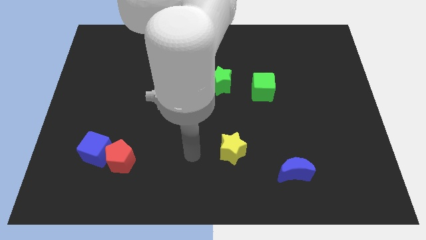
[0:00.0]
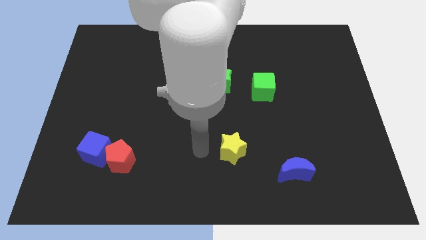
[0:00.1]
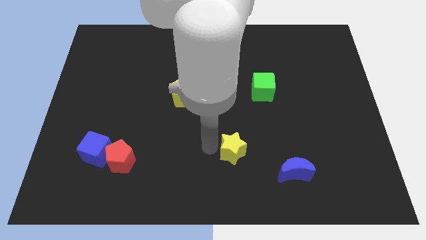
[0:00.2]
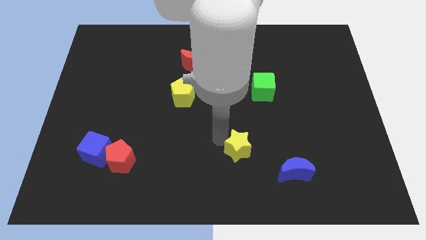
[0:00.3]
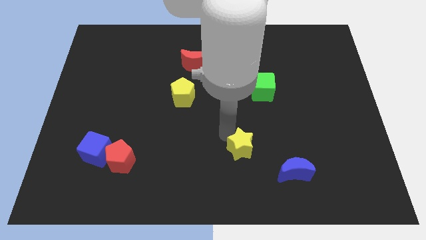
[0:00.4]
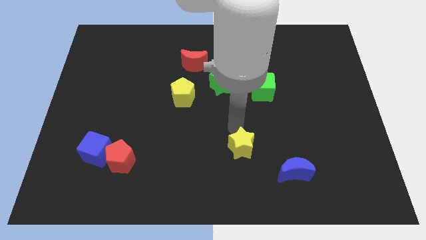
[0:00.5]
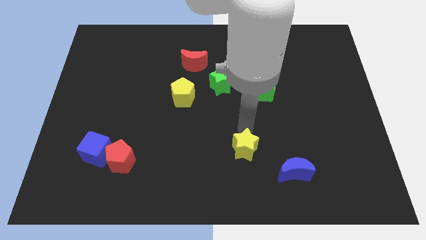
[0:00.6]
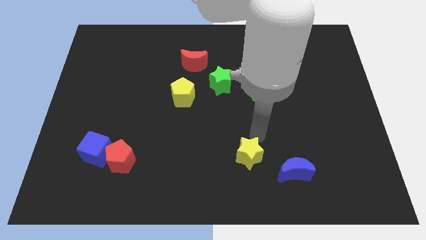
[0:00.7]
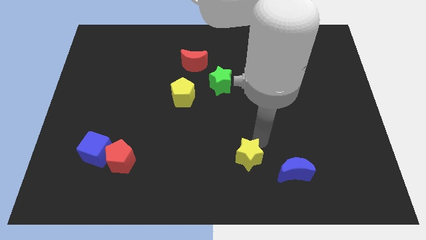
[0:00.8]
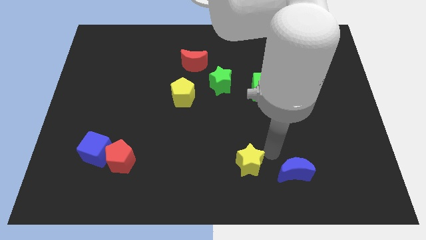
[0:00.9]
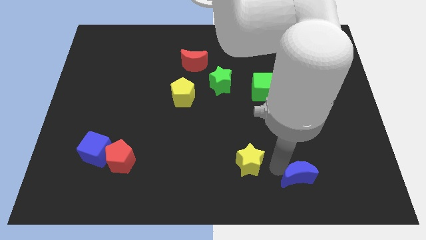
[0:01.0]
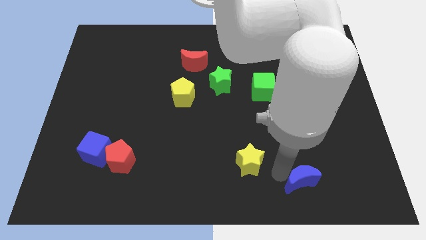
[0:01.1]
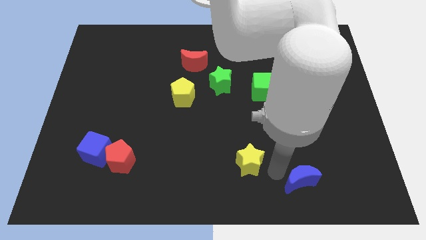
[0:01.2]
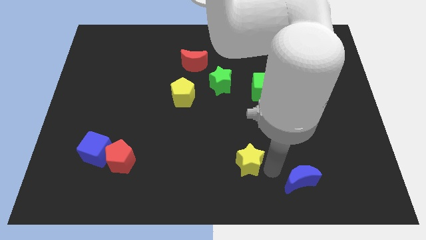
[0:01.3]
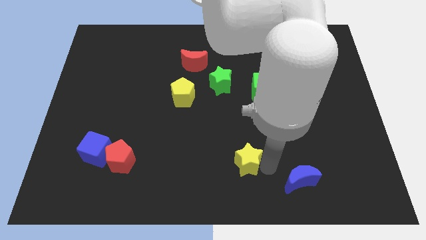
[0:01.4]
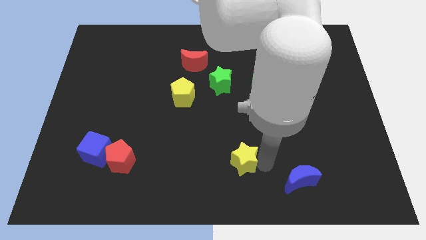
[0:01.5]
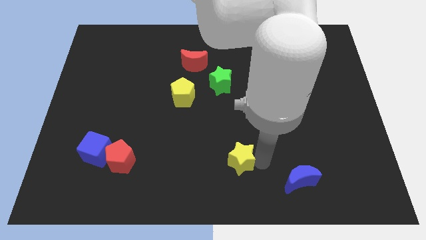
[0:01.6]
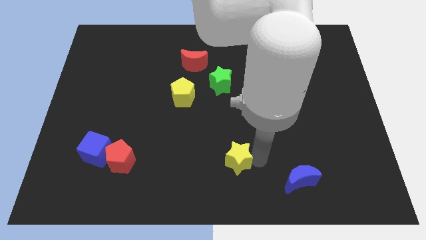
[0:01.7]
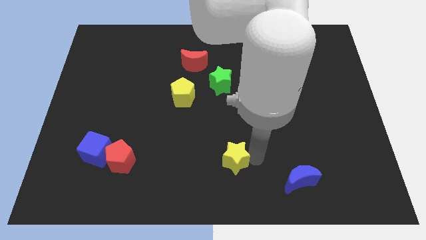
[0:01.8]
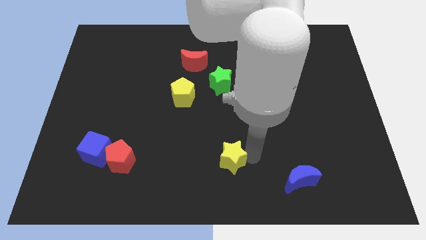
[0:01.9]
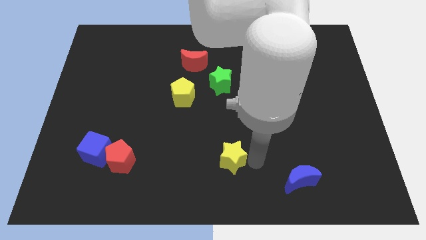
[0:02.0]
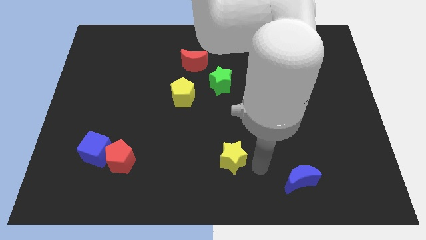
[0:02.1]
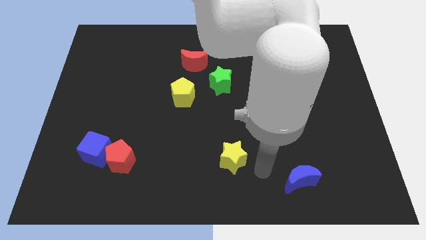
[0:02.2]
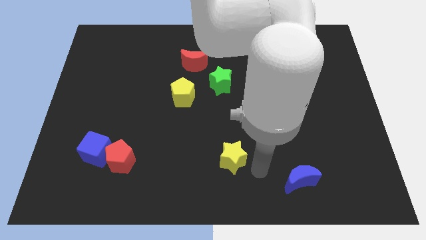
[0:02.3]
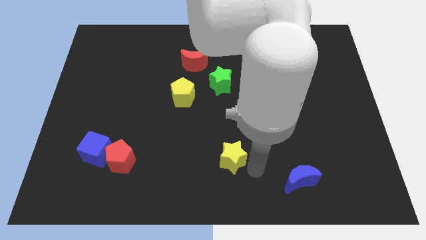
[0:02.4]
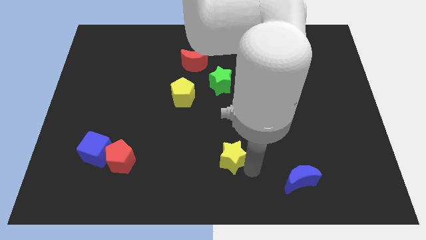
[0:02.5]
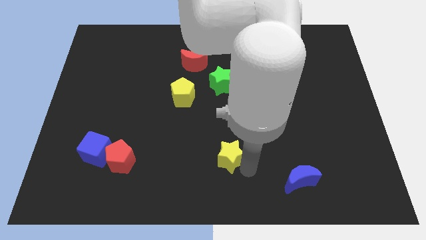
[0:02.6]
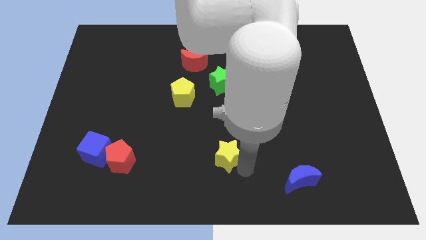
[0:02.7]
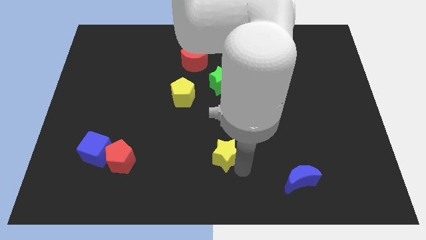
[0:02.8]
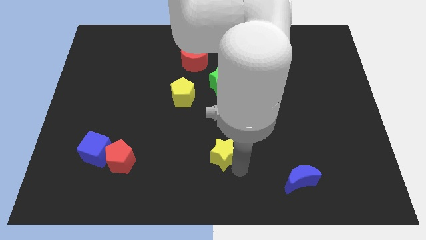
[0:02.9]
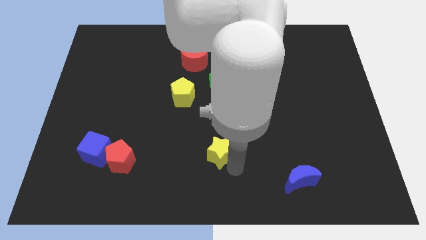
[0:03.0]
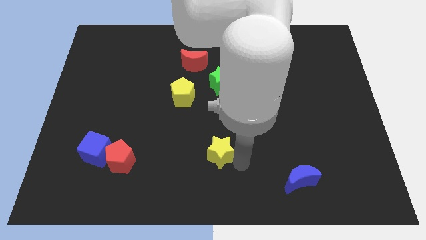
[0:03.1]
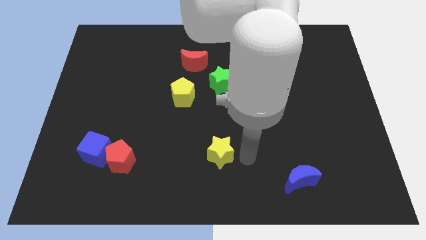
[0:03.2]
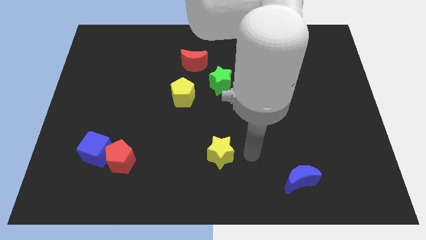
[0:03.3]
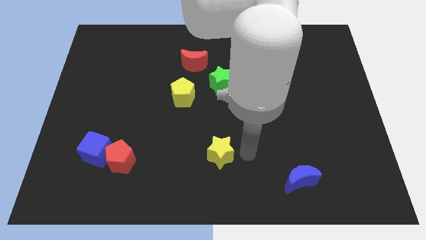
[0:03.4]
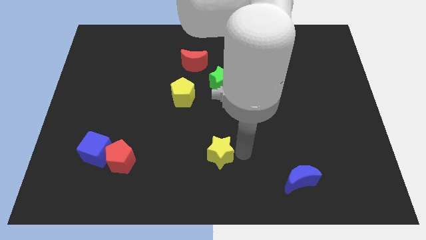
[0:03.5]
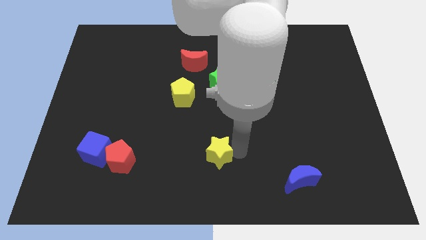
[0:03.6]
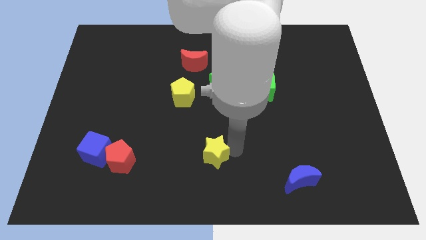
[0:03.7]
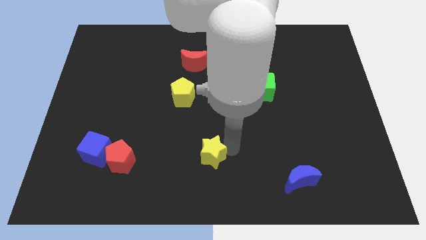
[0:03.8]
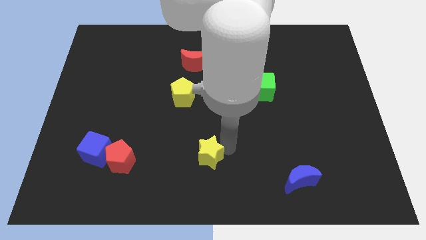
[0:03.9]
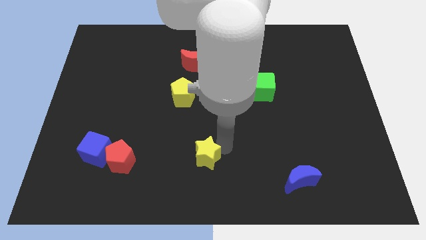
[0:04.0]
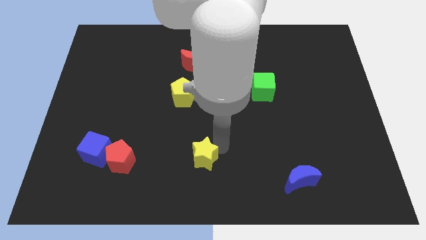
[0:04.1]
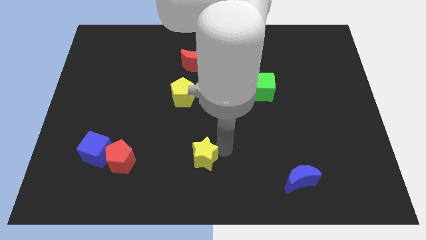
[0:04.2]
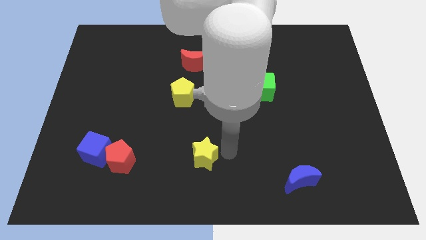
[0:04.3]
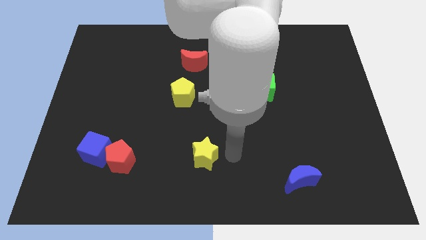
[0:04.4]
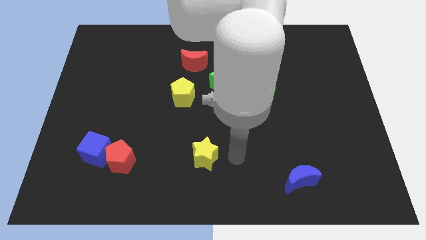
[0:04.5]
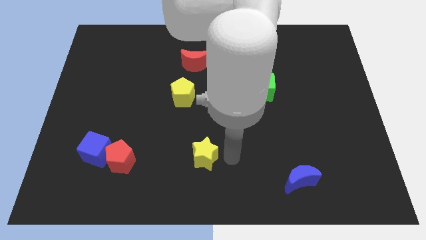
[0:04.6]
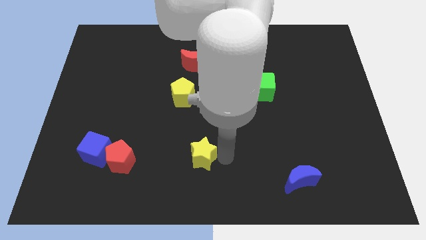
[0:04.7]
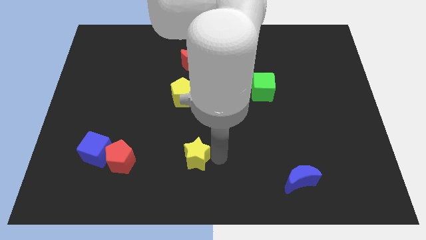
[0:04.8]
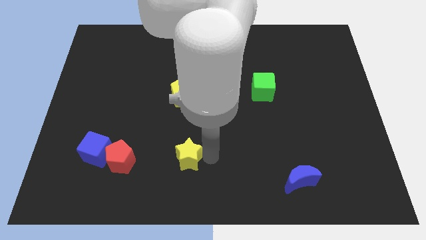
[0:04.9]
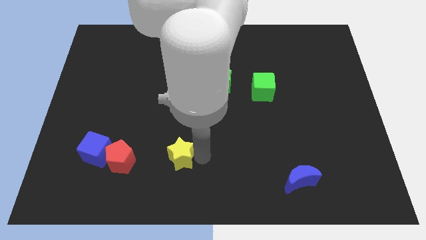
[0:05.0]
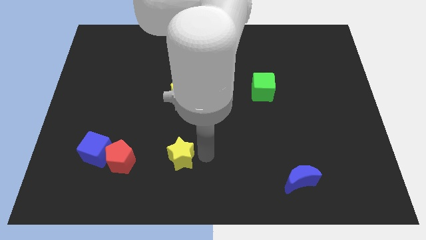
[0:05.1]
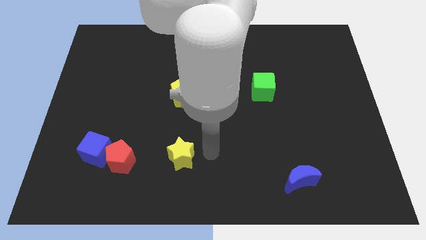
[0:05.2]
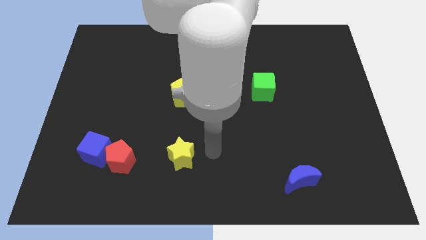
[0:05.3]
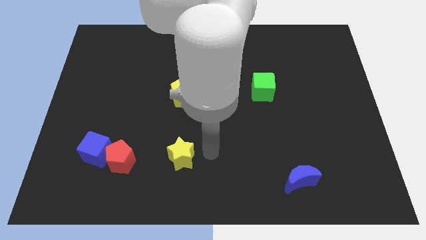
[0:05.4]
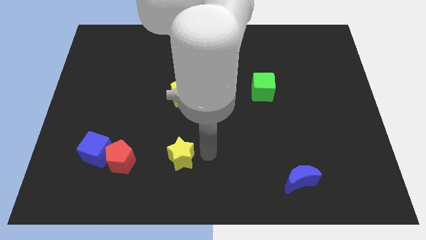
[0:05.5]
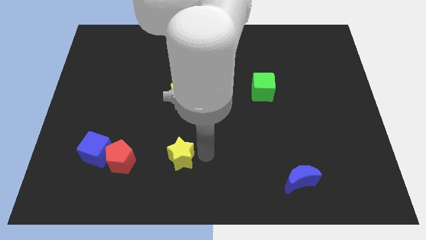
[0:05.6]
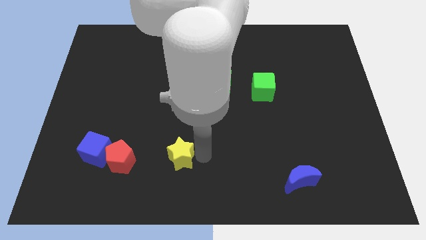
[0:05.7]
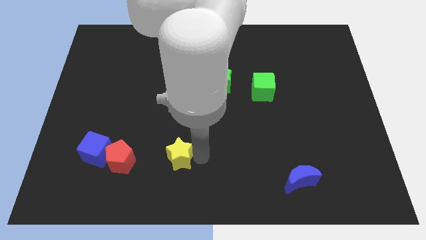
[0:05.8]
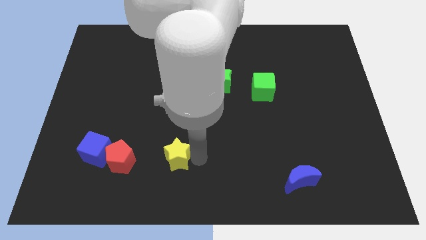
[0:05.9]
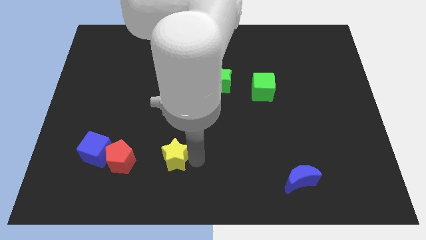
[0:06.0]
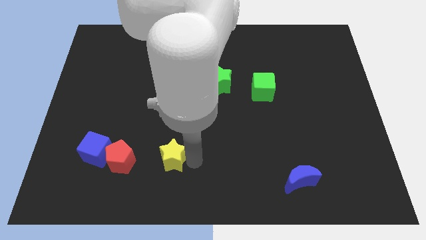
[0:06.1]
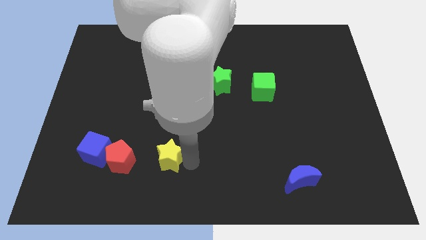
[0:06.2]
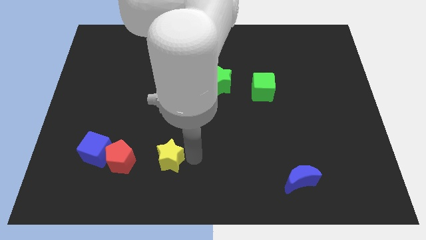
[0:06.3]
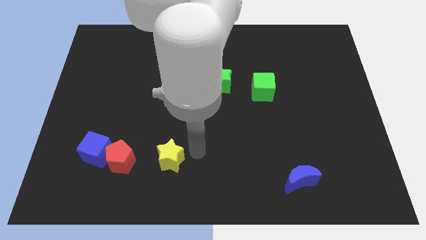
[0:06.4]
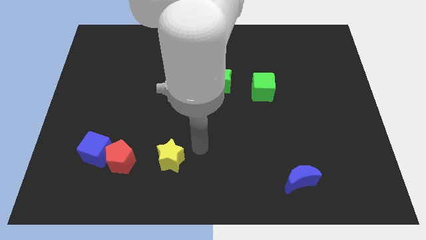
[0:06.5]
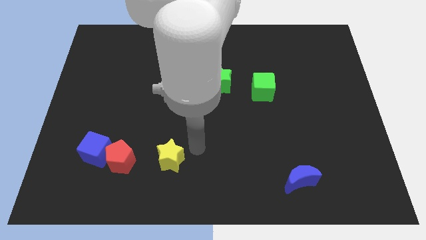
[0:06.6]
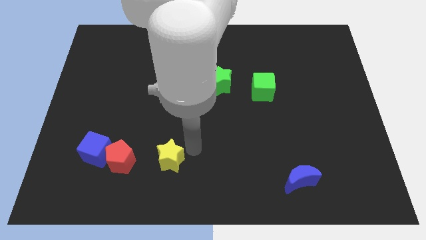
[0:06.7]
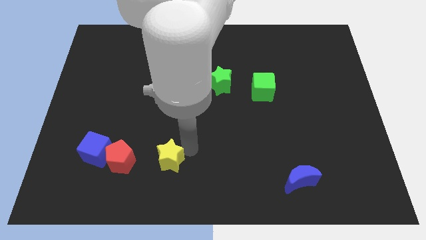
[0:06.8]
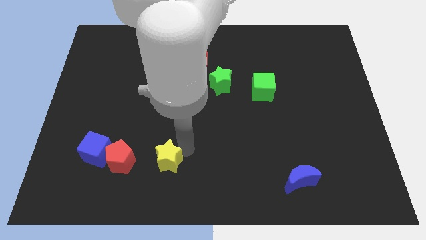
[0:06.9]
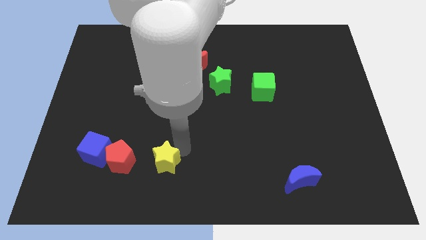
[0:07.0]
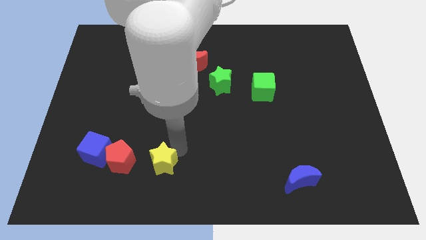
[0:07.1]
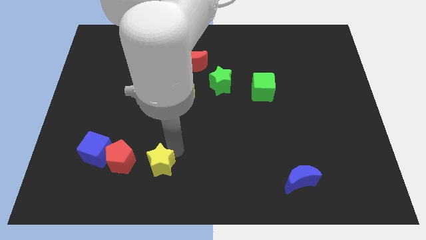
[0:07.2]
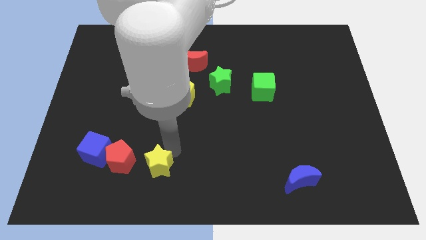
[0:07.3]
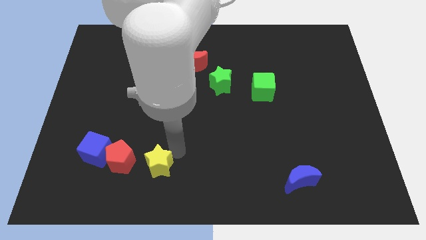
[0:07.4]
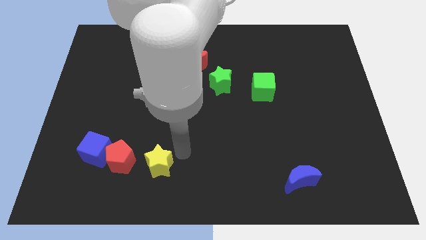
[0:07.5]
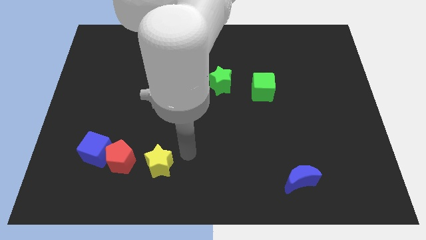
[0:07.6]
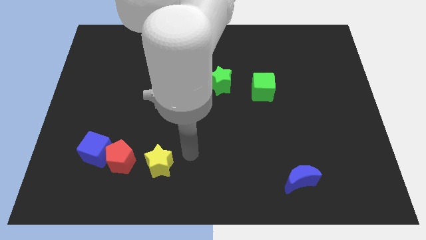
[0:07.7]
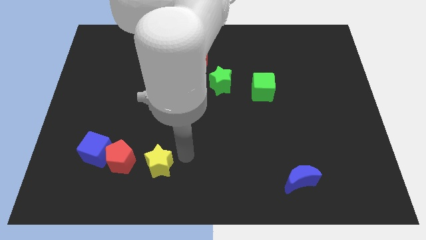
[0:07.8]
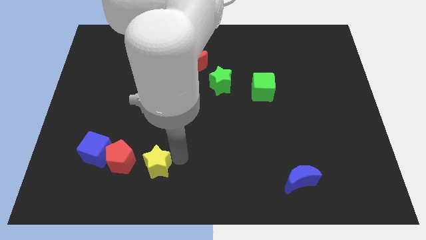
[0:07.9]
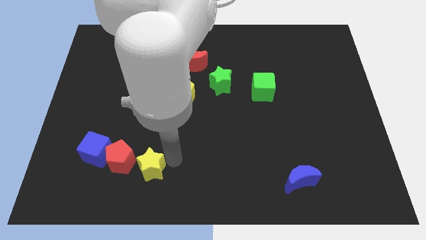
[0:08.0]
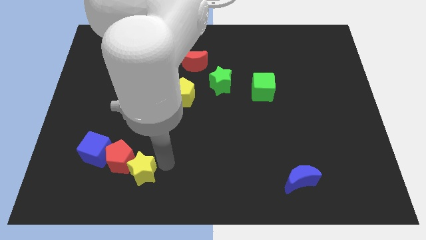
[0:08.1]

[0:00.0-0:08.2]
move the yellow star diagonally down and to the right of the blue cube
